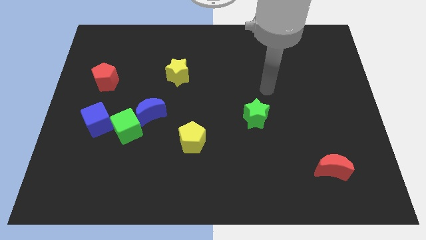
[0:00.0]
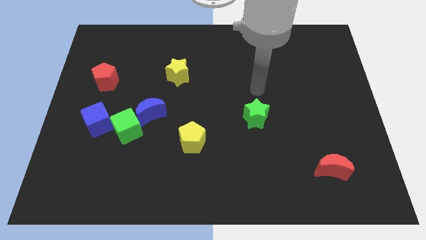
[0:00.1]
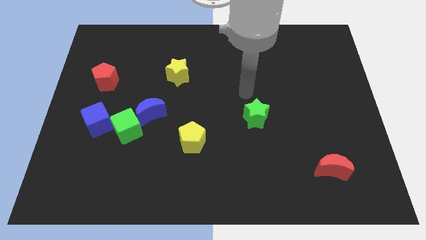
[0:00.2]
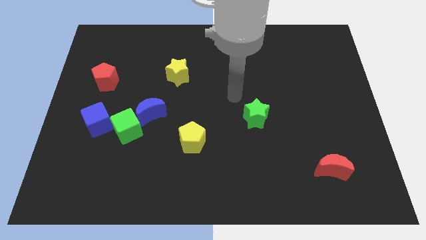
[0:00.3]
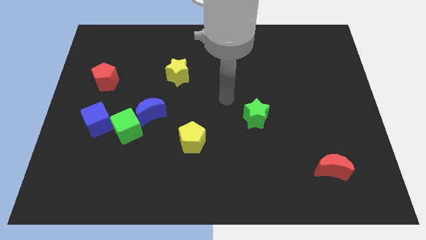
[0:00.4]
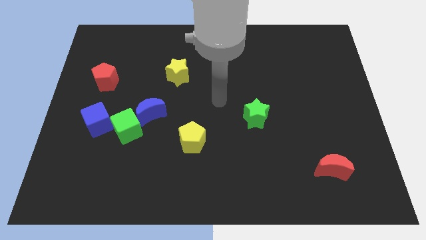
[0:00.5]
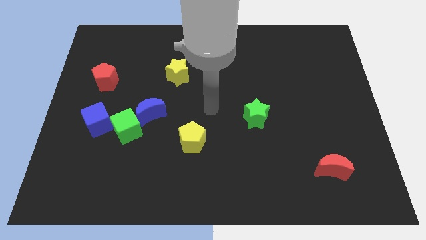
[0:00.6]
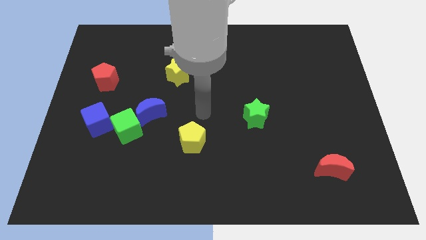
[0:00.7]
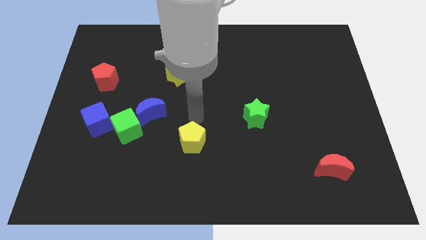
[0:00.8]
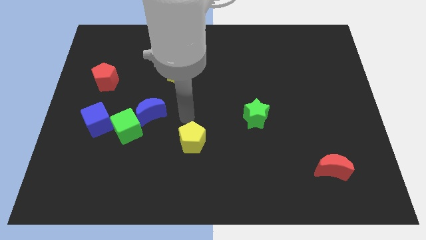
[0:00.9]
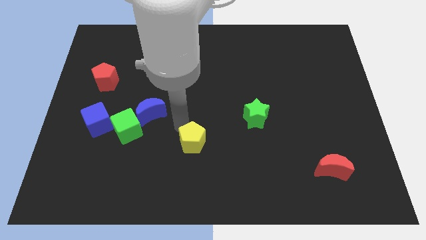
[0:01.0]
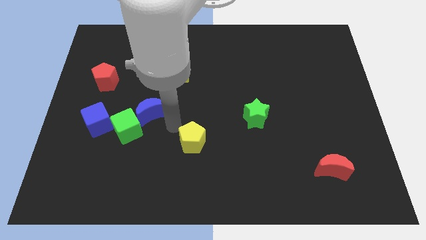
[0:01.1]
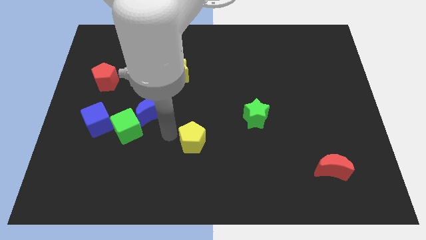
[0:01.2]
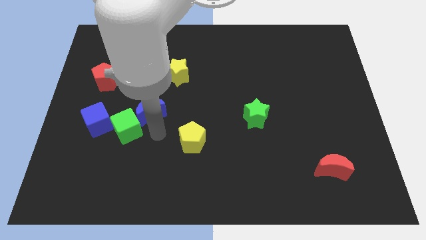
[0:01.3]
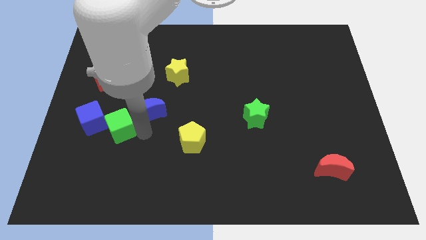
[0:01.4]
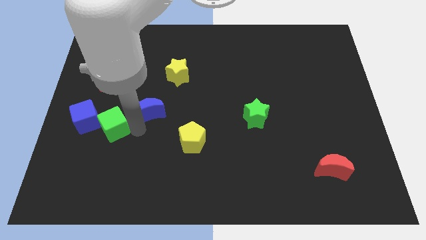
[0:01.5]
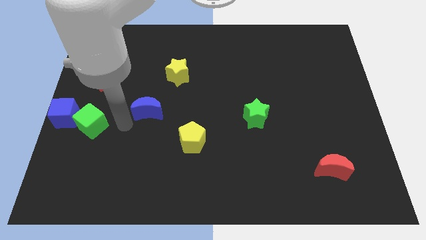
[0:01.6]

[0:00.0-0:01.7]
pull the blue moon apart from the green cube

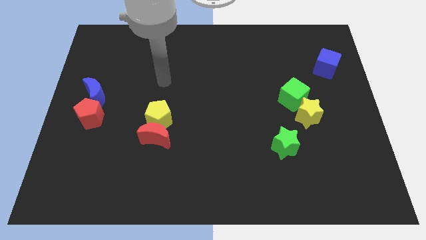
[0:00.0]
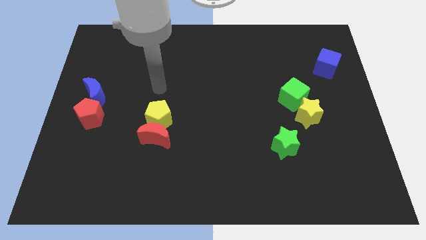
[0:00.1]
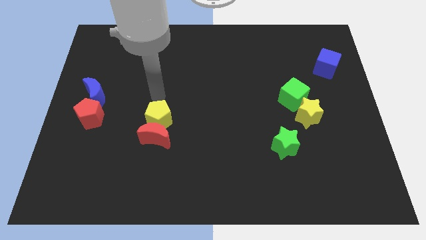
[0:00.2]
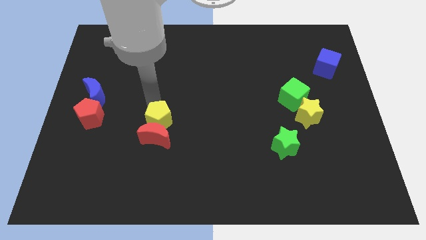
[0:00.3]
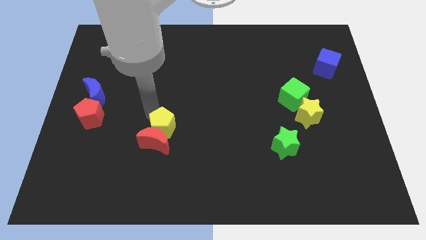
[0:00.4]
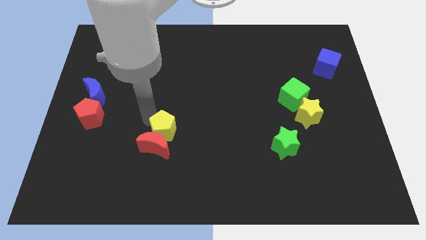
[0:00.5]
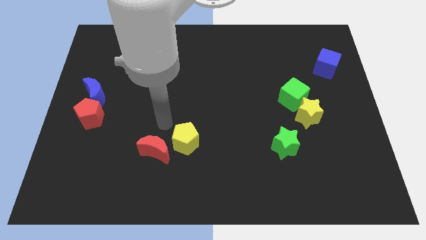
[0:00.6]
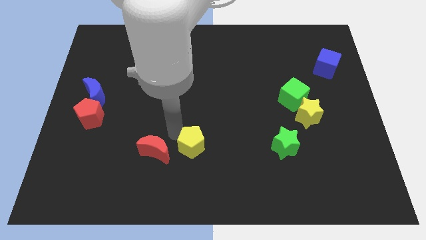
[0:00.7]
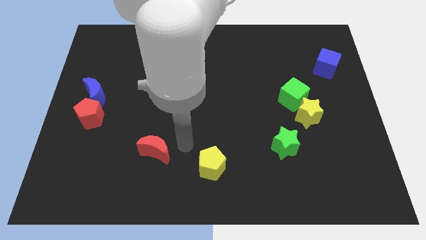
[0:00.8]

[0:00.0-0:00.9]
separate the red moon from the yellow pentagon

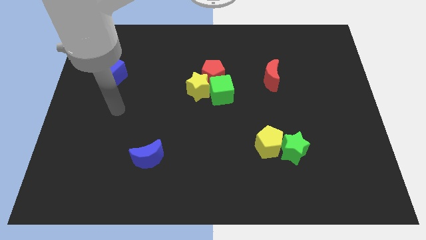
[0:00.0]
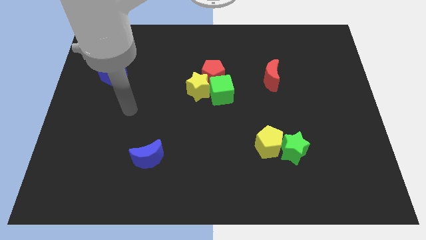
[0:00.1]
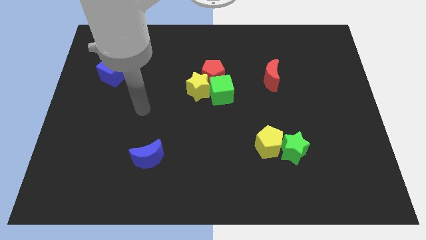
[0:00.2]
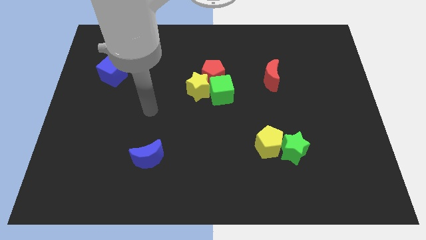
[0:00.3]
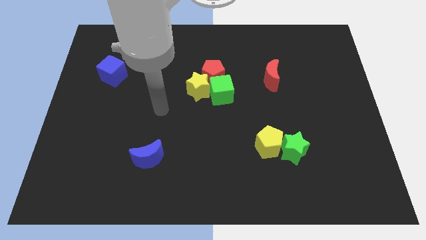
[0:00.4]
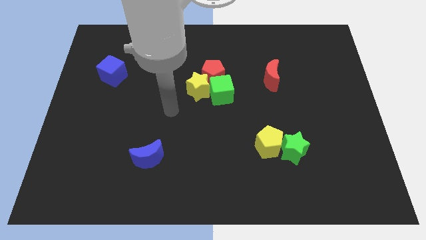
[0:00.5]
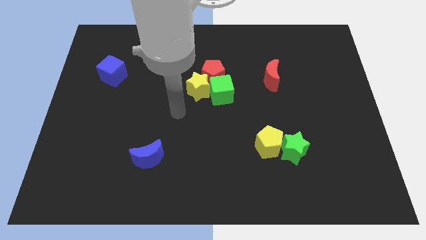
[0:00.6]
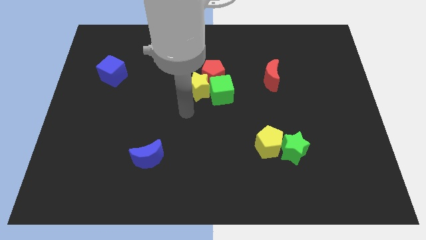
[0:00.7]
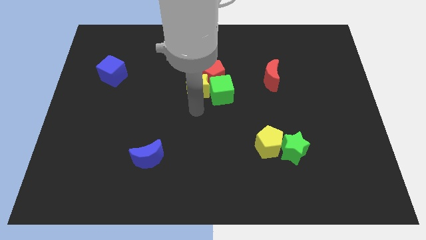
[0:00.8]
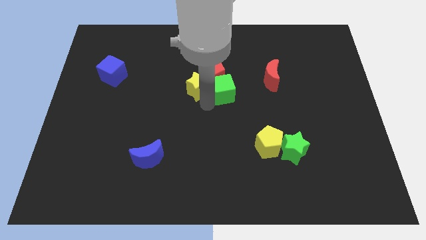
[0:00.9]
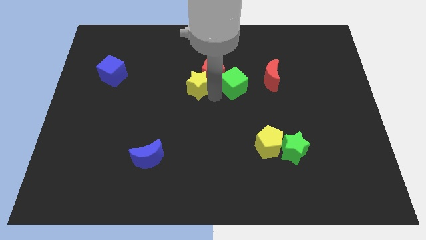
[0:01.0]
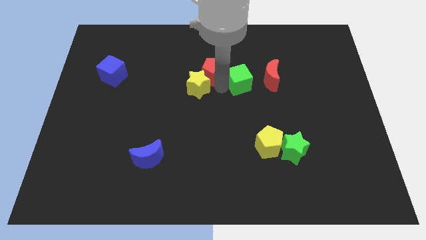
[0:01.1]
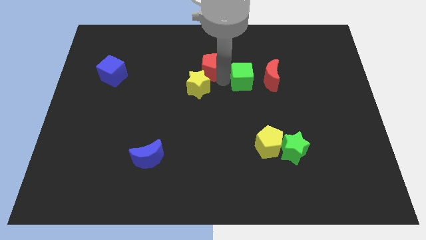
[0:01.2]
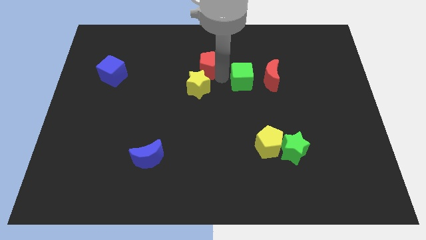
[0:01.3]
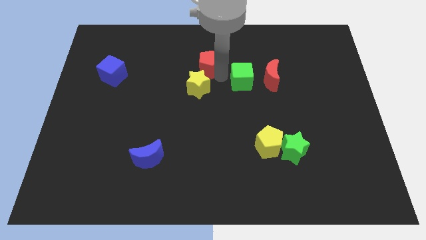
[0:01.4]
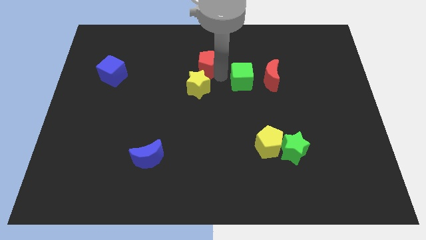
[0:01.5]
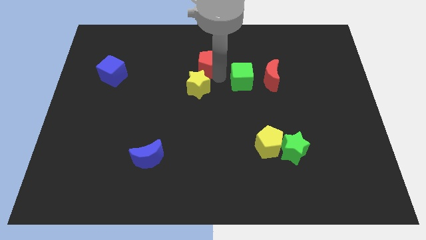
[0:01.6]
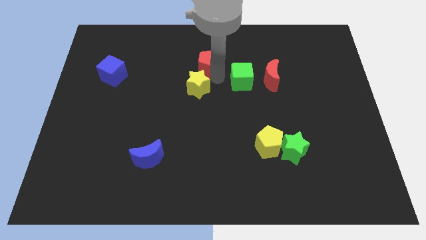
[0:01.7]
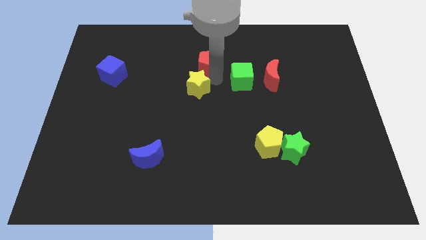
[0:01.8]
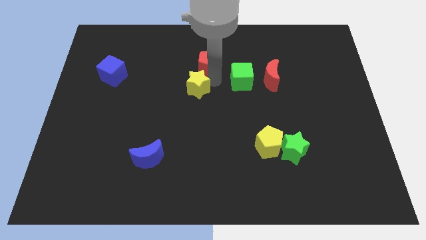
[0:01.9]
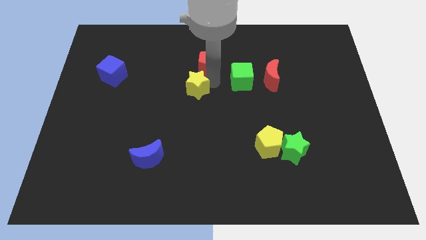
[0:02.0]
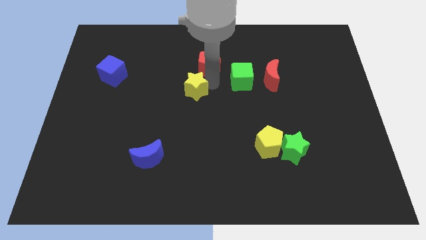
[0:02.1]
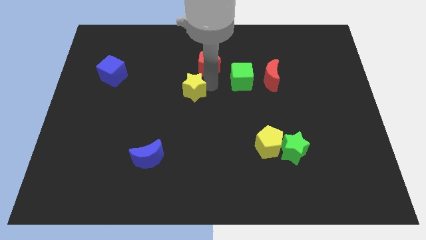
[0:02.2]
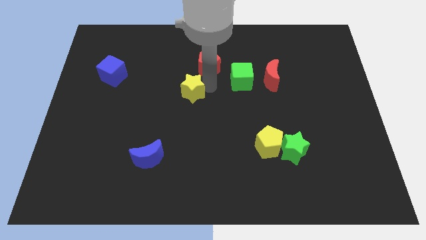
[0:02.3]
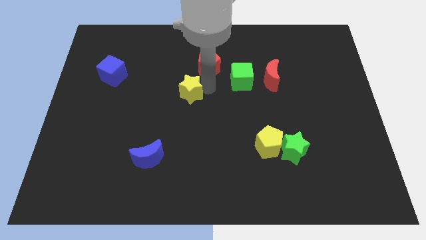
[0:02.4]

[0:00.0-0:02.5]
move the yellow star away from the red pentagon and green cube

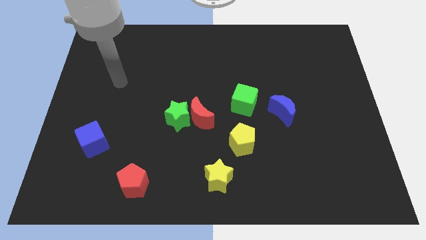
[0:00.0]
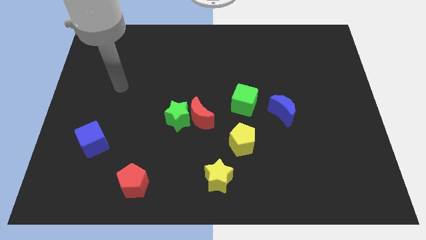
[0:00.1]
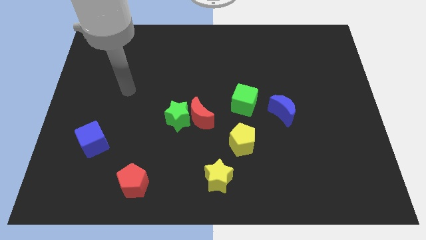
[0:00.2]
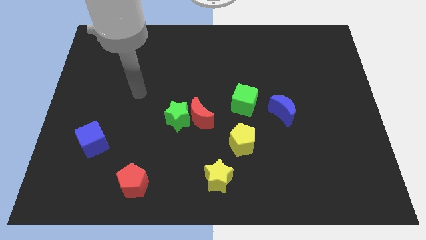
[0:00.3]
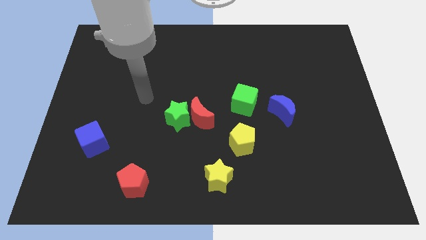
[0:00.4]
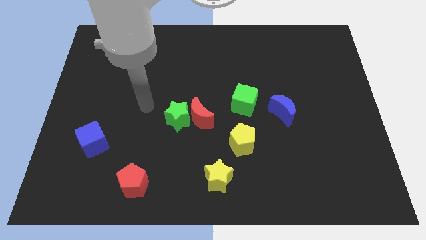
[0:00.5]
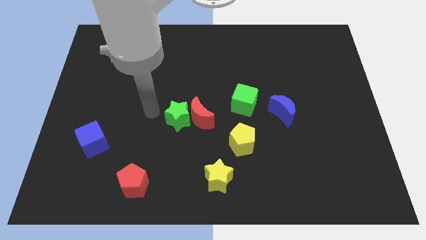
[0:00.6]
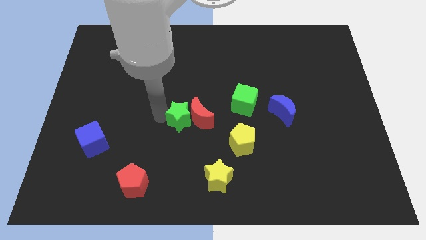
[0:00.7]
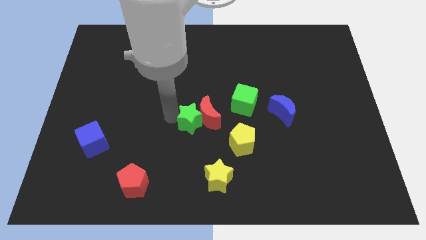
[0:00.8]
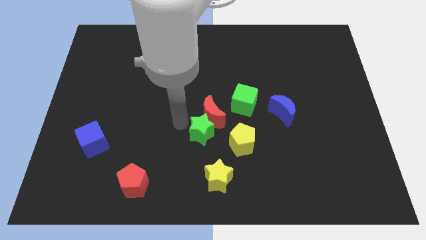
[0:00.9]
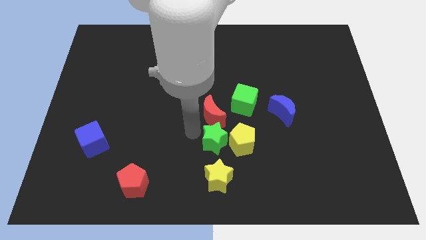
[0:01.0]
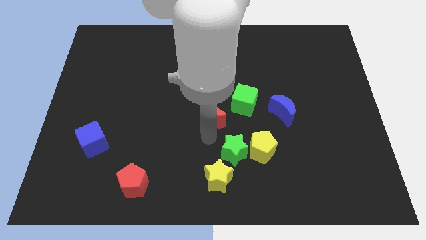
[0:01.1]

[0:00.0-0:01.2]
move the red moon away from the green star

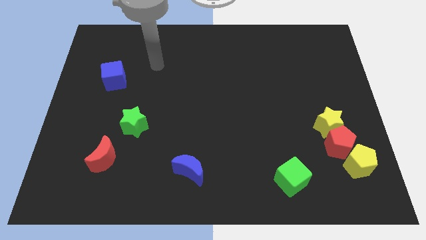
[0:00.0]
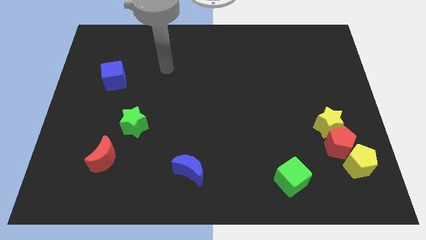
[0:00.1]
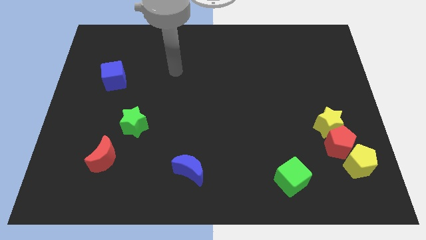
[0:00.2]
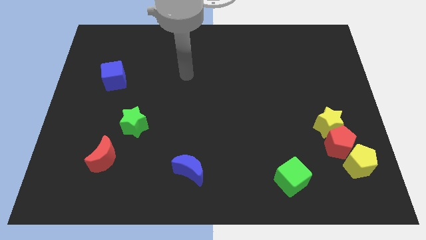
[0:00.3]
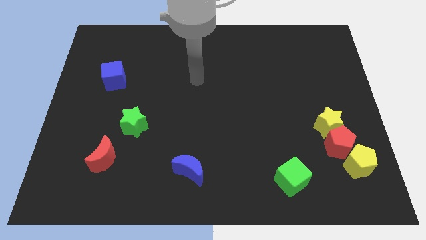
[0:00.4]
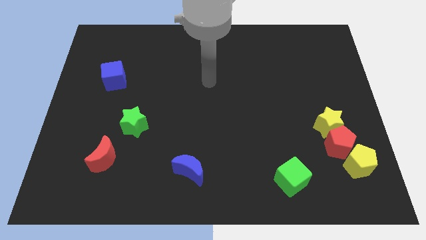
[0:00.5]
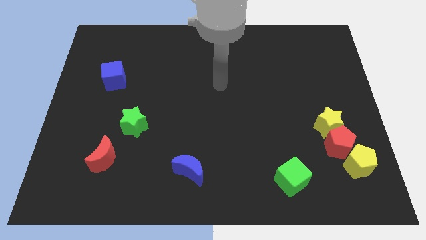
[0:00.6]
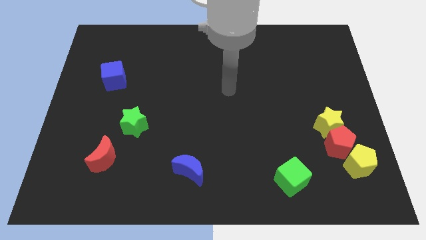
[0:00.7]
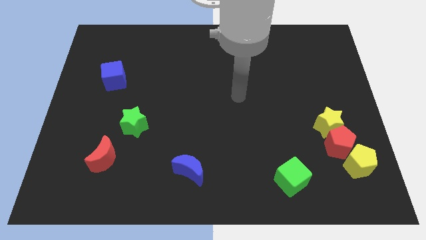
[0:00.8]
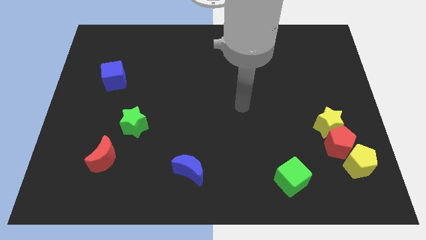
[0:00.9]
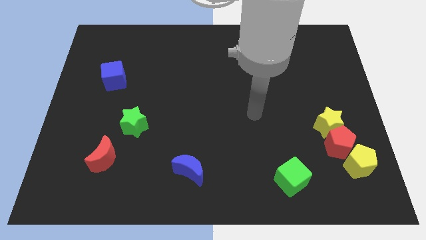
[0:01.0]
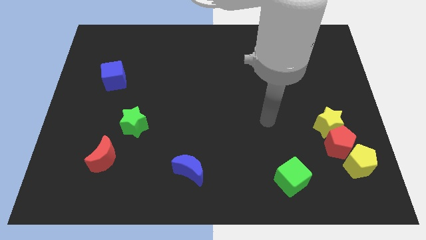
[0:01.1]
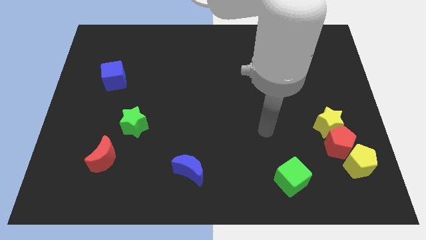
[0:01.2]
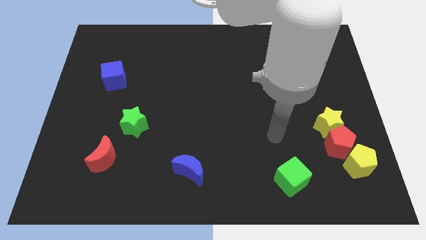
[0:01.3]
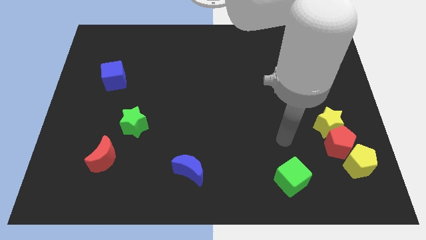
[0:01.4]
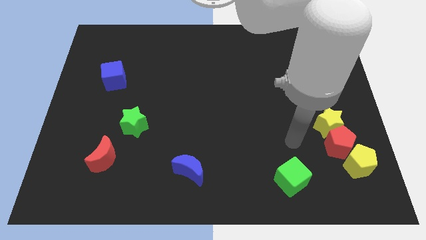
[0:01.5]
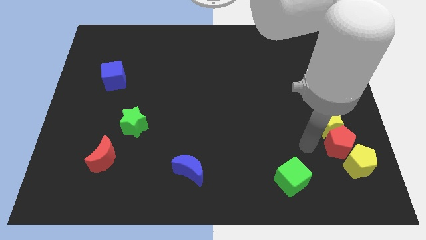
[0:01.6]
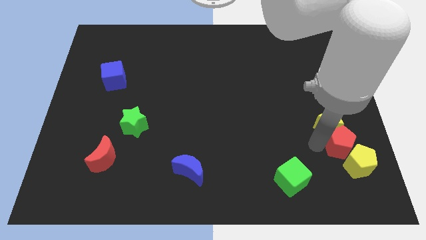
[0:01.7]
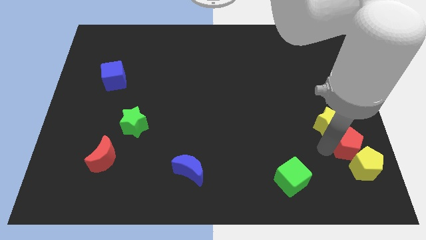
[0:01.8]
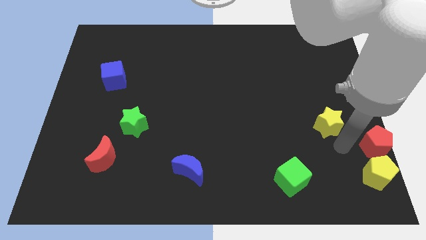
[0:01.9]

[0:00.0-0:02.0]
move the yellow star away from the red pentagon

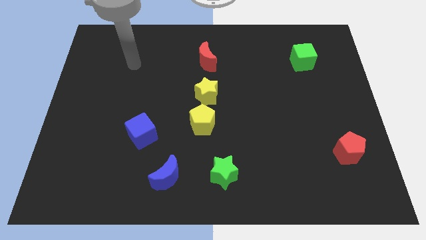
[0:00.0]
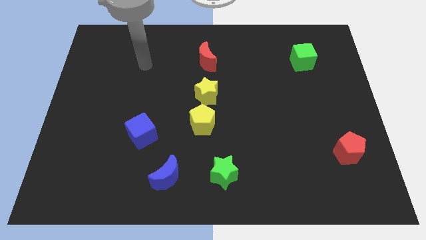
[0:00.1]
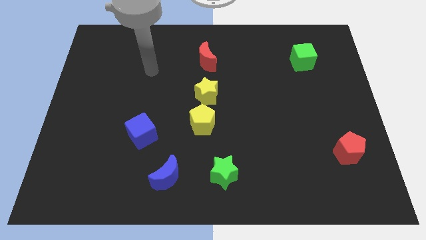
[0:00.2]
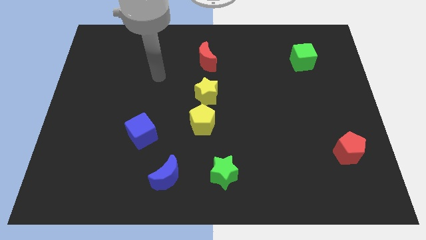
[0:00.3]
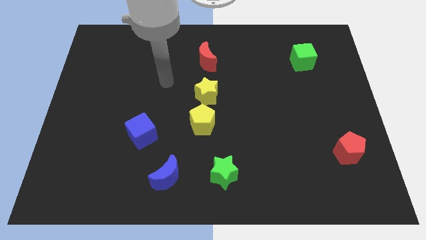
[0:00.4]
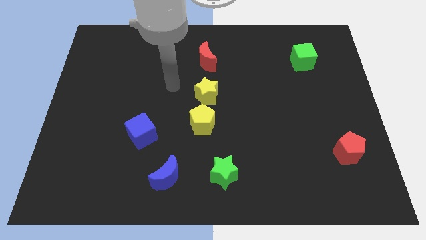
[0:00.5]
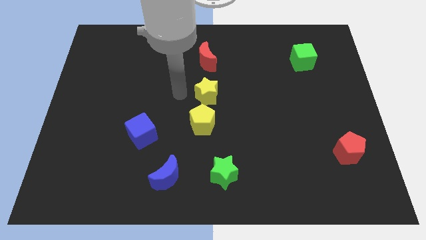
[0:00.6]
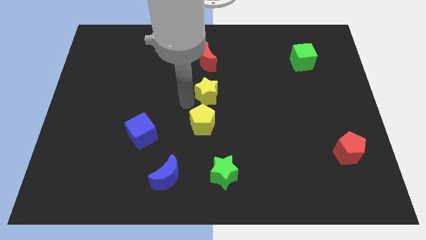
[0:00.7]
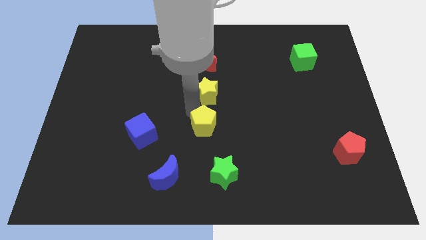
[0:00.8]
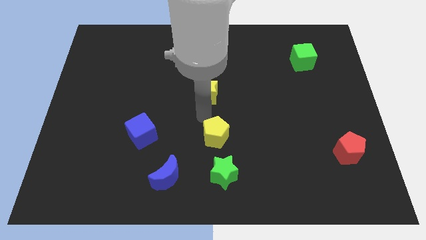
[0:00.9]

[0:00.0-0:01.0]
pull the yellow star apart from the yellow pentagon
